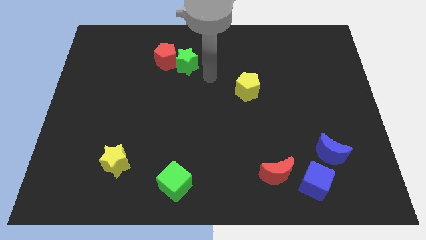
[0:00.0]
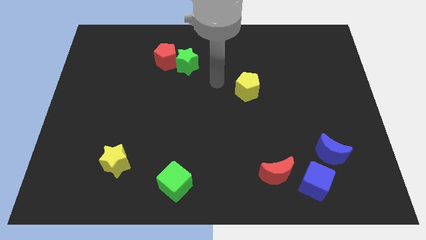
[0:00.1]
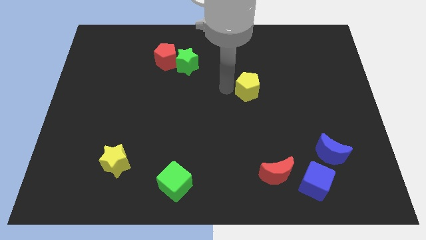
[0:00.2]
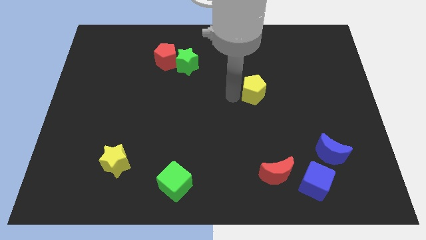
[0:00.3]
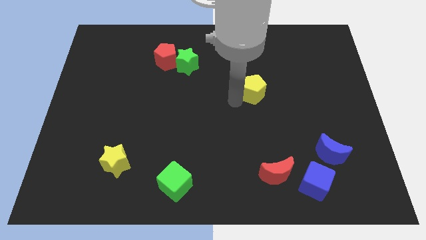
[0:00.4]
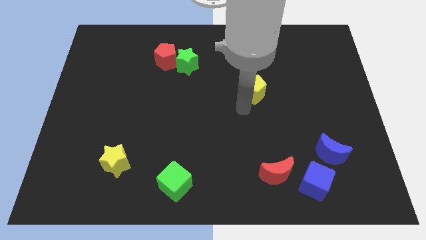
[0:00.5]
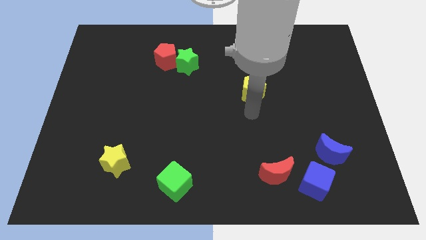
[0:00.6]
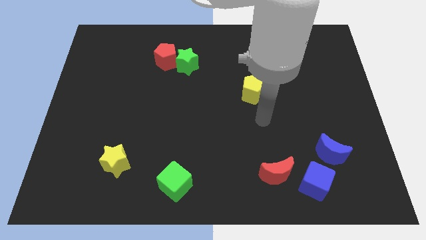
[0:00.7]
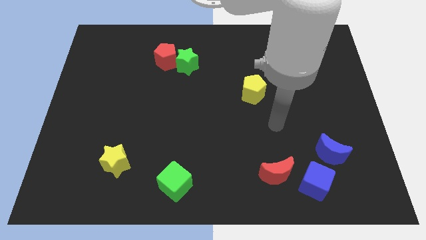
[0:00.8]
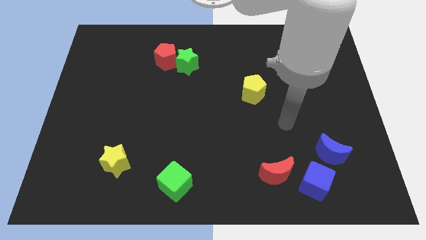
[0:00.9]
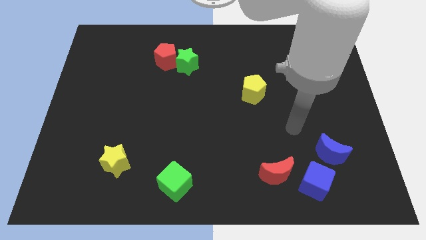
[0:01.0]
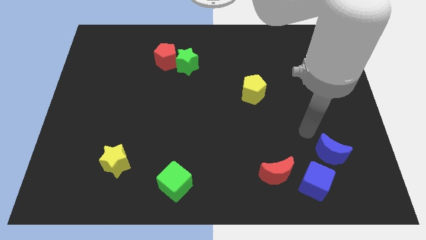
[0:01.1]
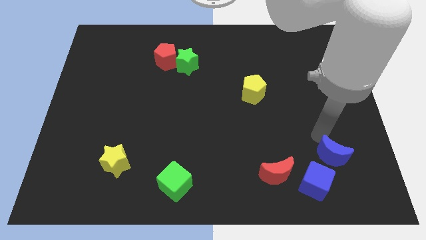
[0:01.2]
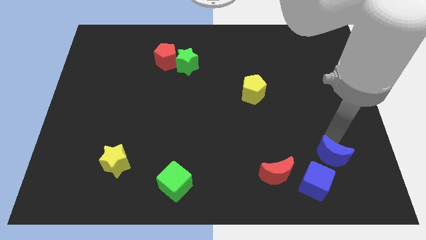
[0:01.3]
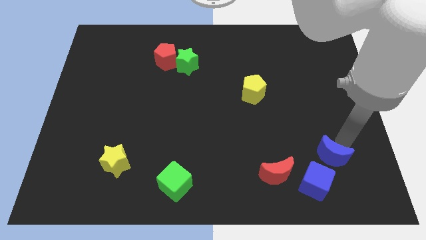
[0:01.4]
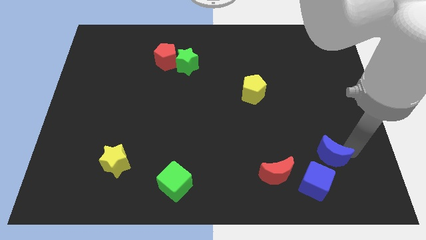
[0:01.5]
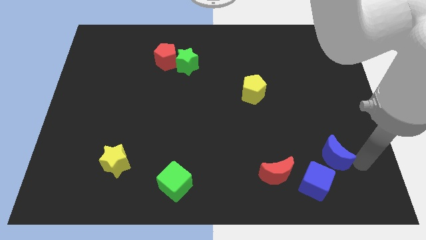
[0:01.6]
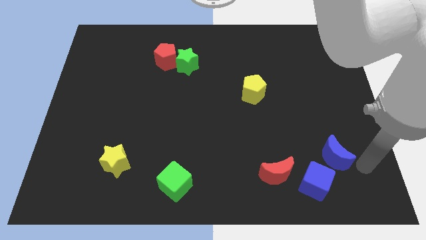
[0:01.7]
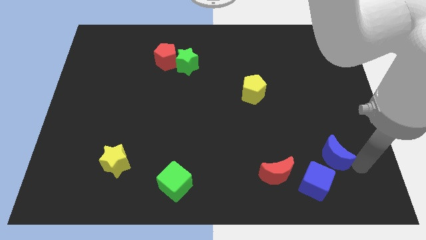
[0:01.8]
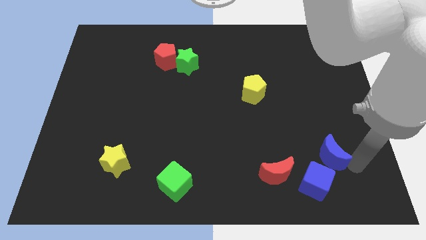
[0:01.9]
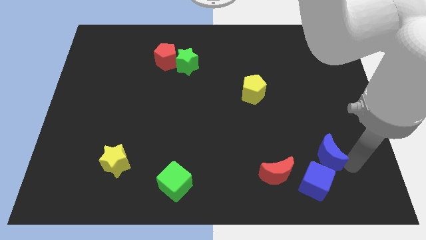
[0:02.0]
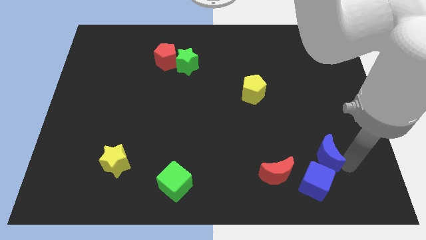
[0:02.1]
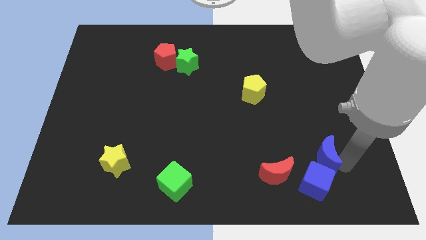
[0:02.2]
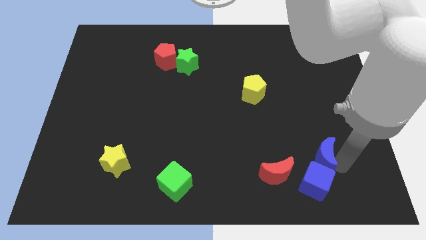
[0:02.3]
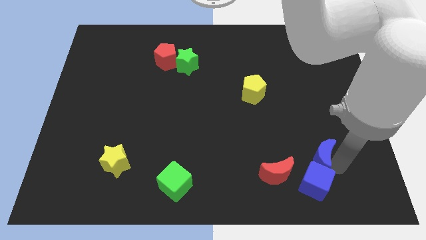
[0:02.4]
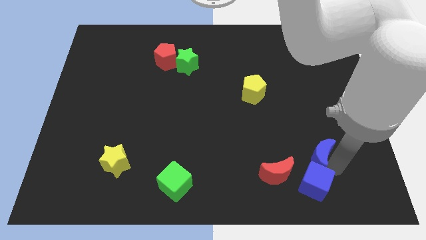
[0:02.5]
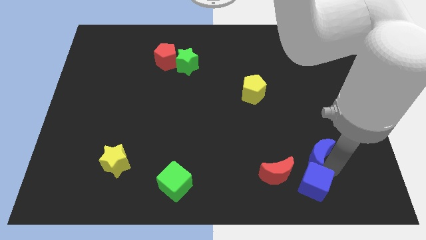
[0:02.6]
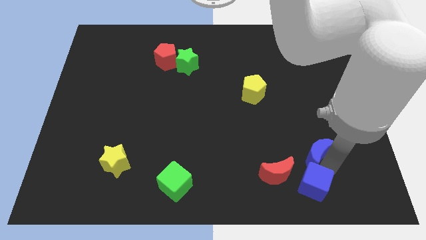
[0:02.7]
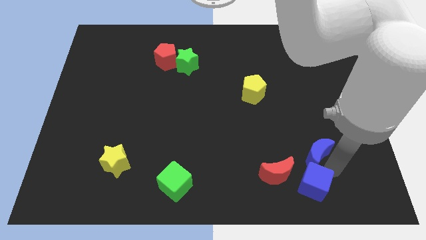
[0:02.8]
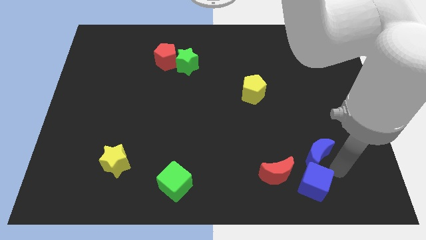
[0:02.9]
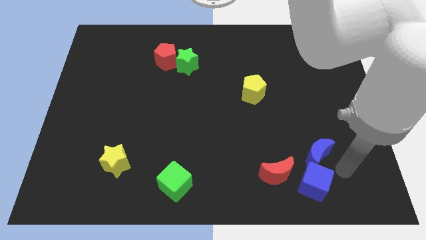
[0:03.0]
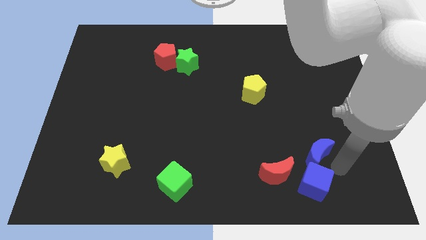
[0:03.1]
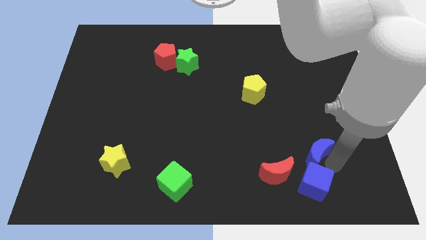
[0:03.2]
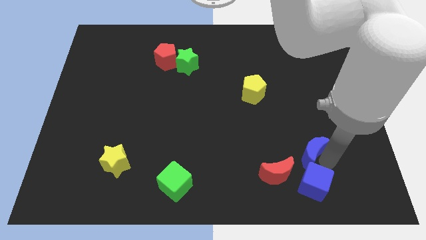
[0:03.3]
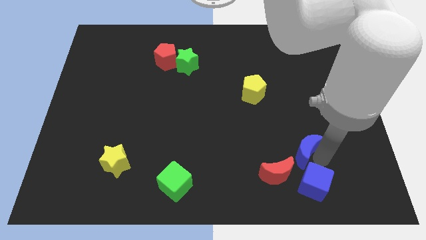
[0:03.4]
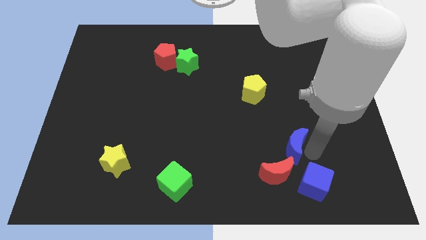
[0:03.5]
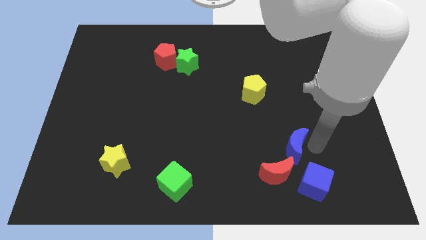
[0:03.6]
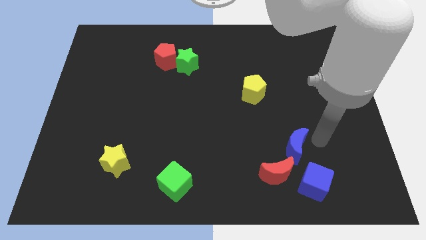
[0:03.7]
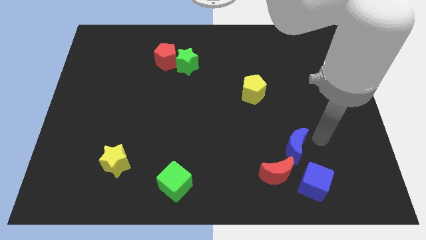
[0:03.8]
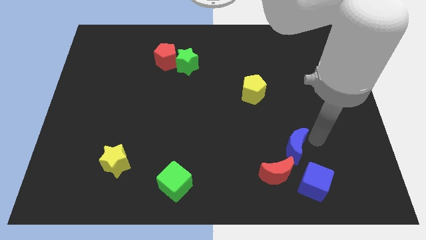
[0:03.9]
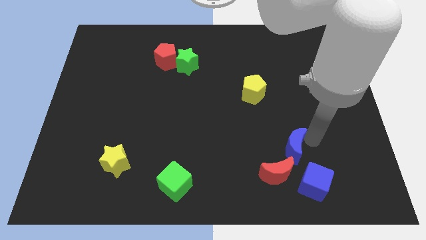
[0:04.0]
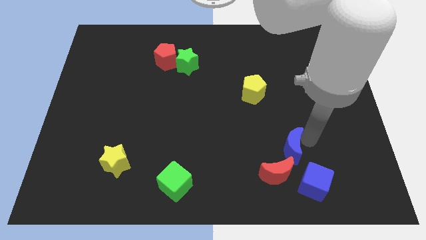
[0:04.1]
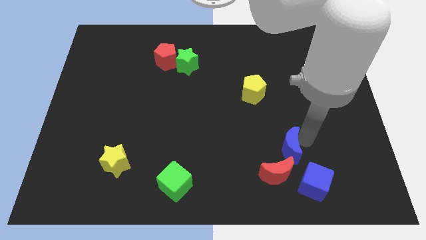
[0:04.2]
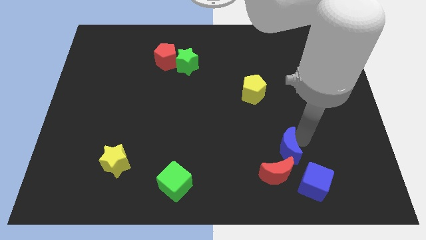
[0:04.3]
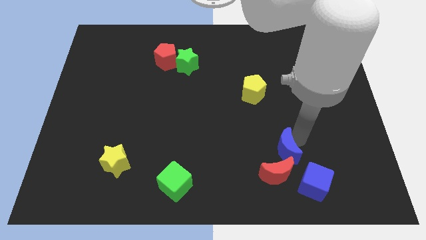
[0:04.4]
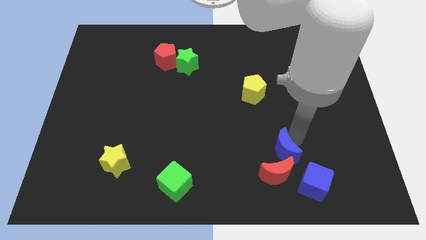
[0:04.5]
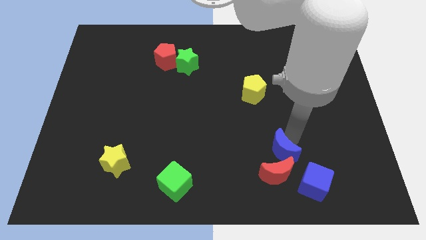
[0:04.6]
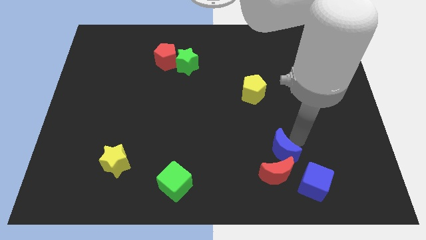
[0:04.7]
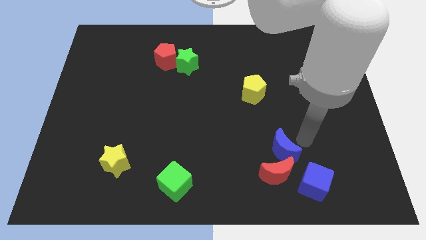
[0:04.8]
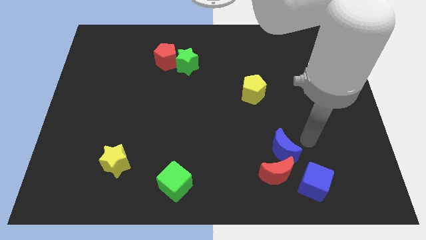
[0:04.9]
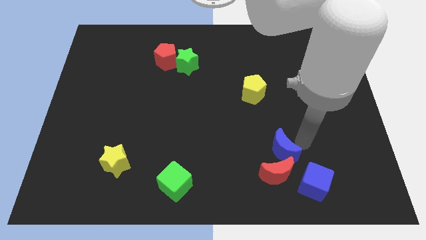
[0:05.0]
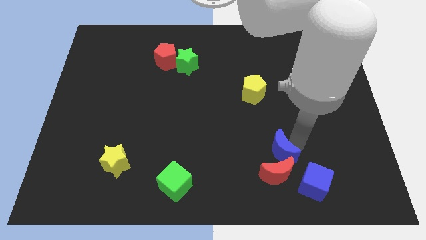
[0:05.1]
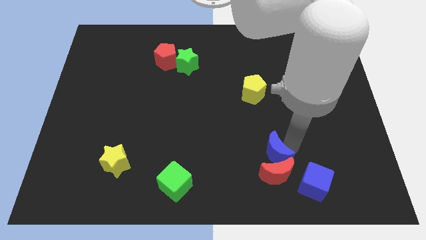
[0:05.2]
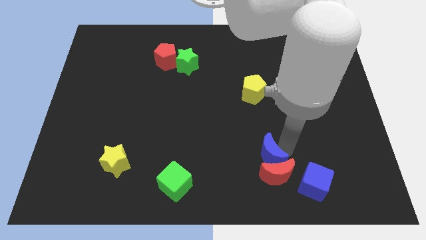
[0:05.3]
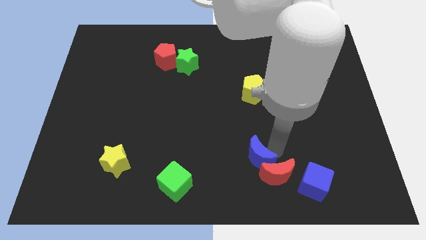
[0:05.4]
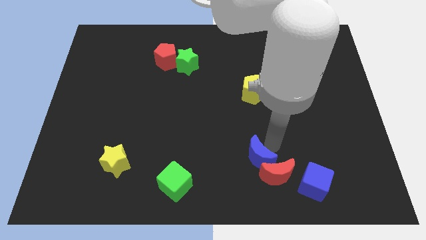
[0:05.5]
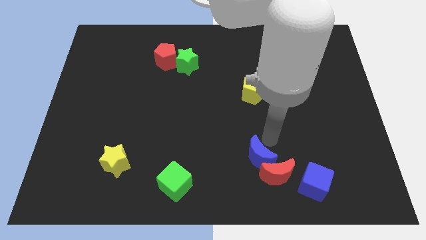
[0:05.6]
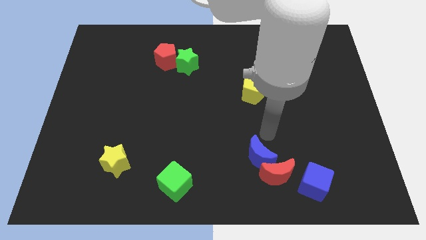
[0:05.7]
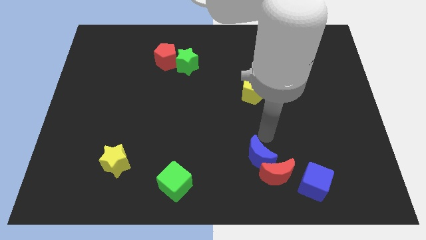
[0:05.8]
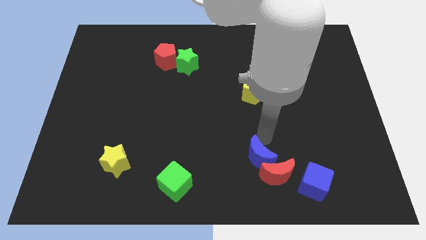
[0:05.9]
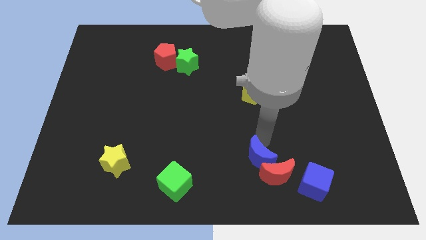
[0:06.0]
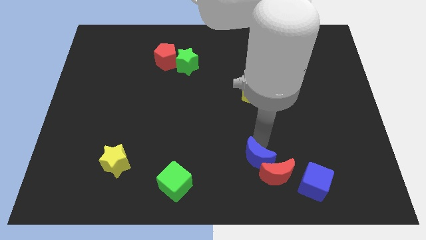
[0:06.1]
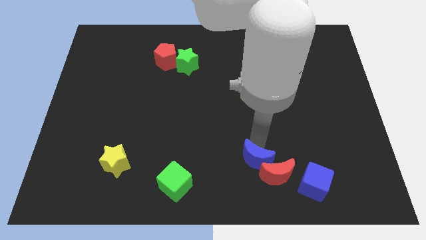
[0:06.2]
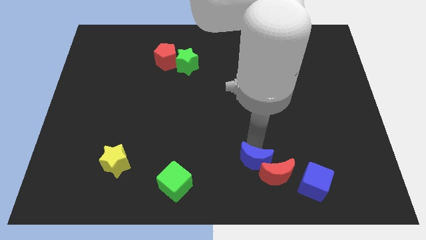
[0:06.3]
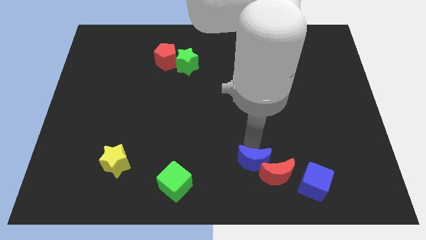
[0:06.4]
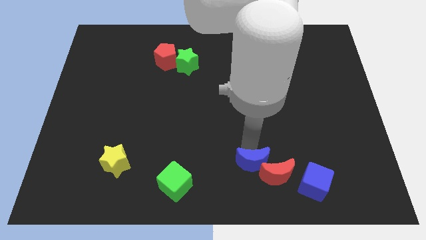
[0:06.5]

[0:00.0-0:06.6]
slide the blue moon to the bottom side
